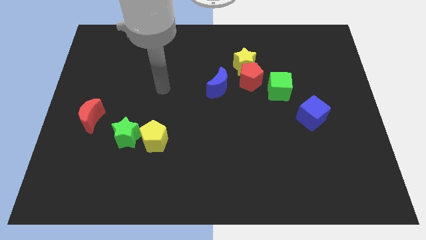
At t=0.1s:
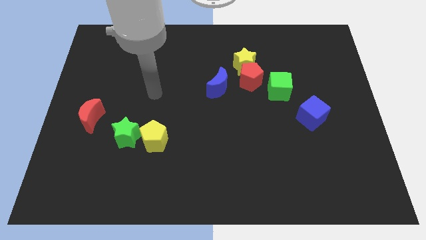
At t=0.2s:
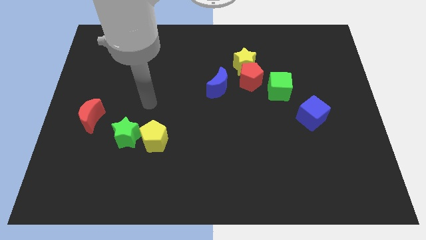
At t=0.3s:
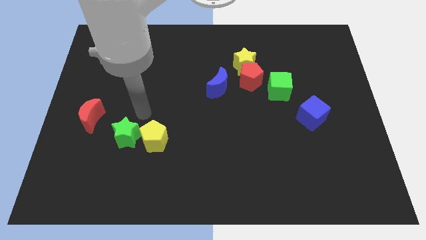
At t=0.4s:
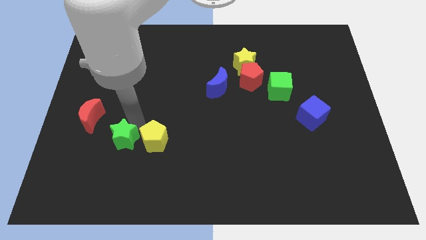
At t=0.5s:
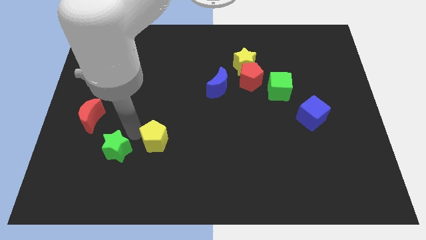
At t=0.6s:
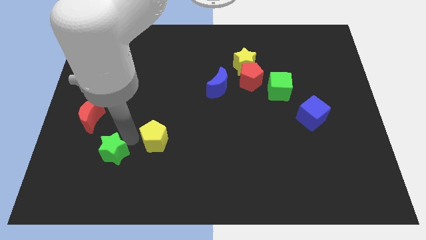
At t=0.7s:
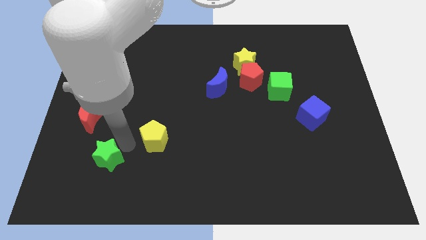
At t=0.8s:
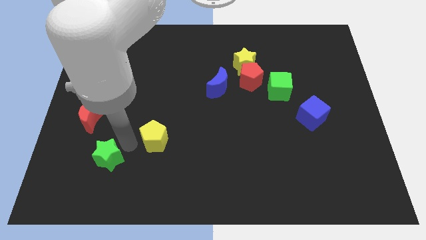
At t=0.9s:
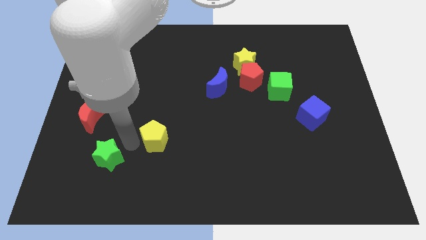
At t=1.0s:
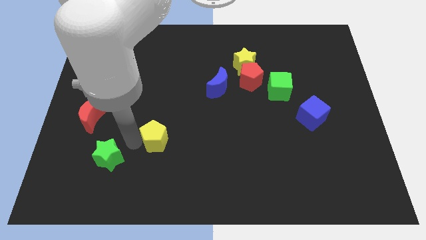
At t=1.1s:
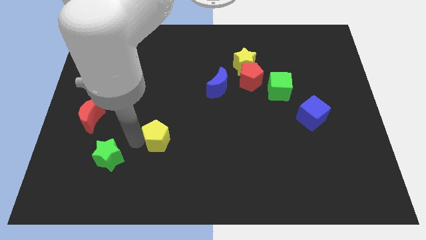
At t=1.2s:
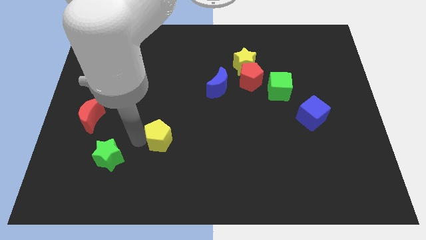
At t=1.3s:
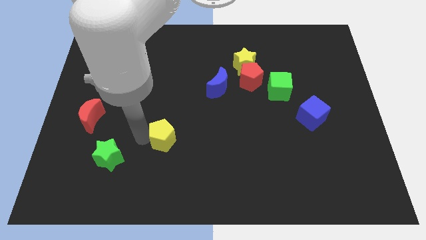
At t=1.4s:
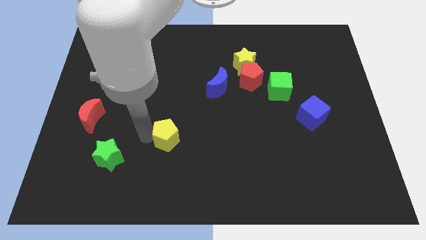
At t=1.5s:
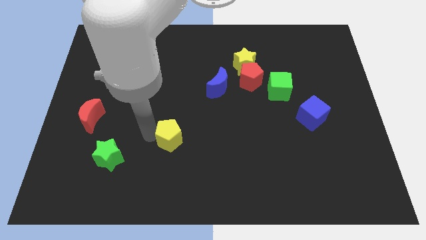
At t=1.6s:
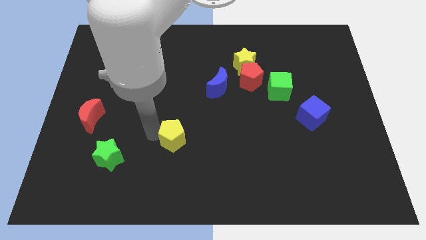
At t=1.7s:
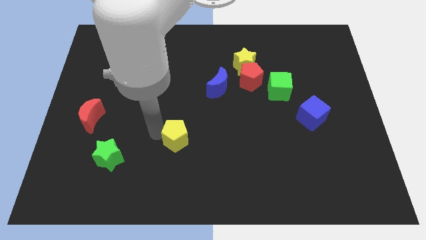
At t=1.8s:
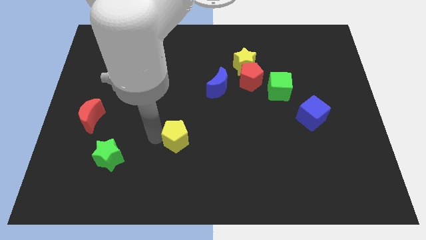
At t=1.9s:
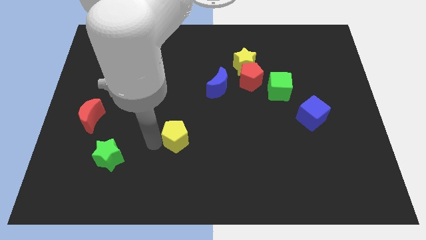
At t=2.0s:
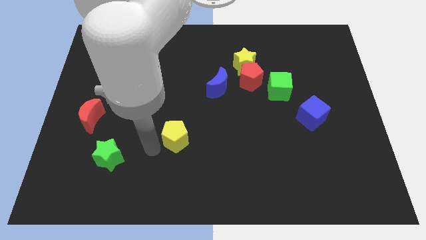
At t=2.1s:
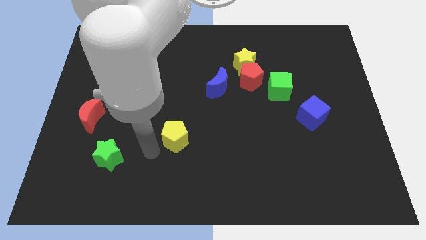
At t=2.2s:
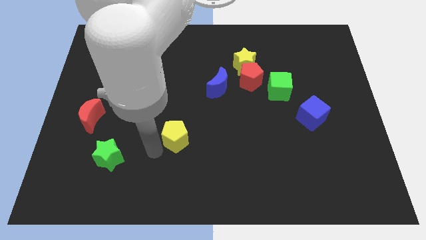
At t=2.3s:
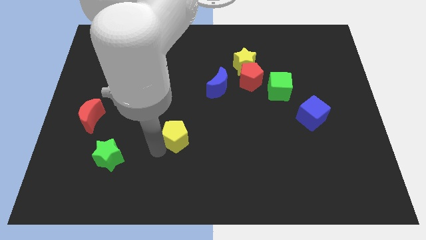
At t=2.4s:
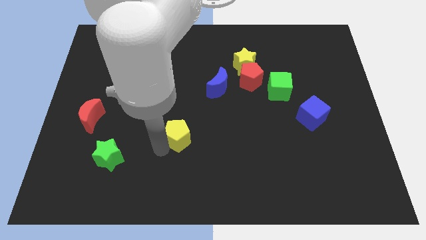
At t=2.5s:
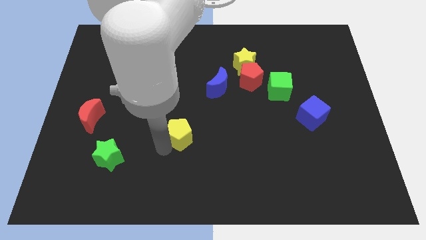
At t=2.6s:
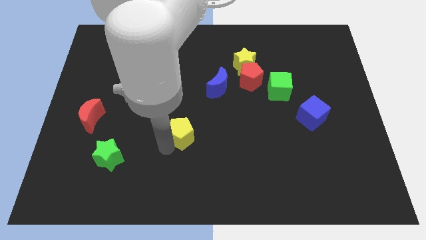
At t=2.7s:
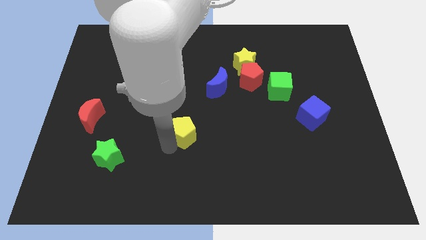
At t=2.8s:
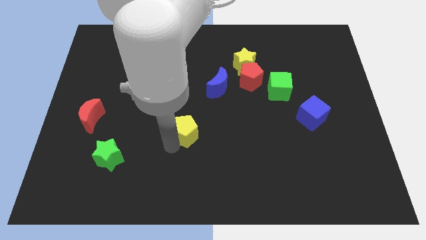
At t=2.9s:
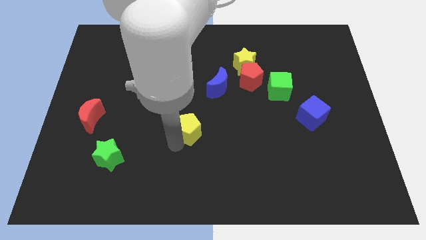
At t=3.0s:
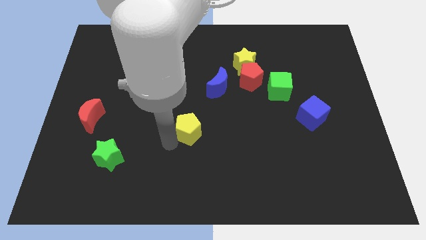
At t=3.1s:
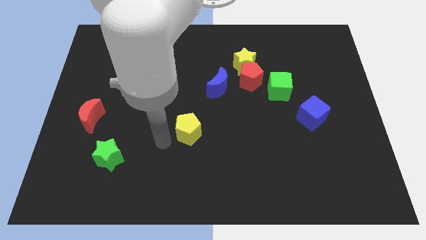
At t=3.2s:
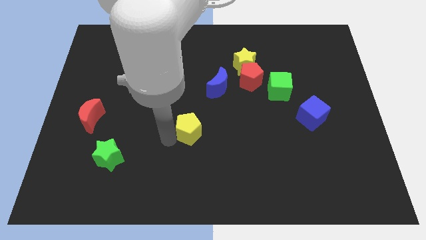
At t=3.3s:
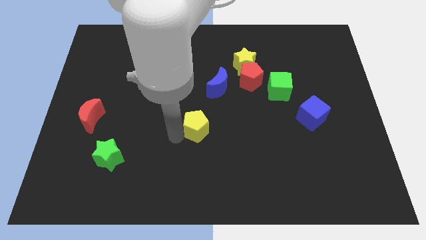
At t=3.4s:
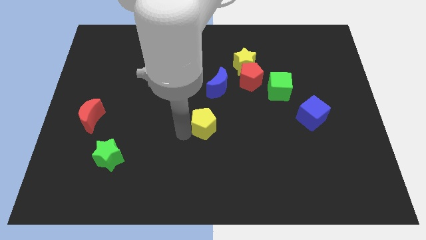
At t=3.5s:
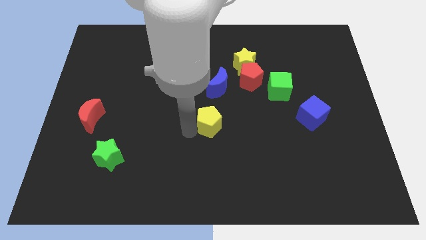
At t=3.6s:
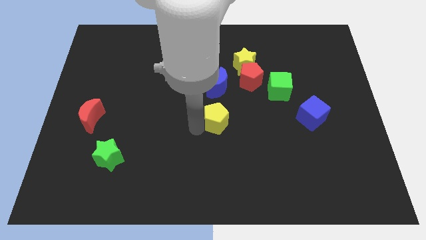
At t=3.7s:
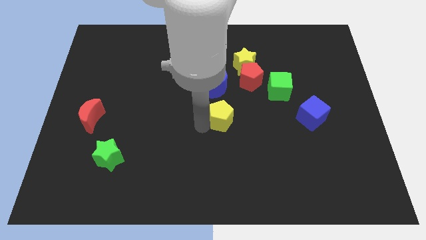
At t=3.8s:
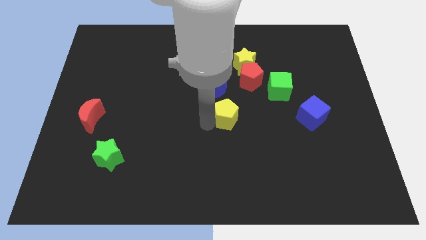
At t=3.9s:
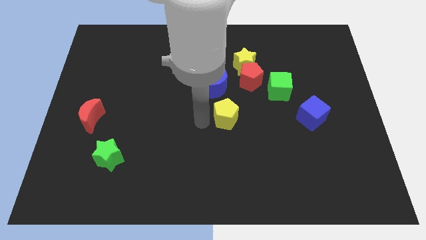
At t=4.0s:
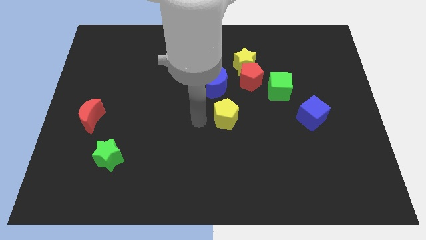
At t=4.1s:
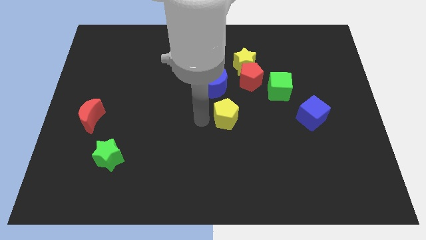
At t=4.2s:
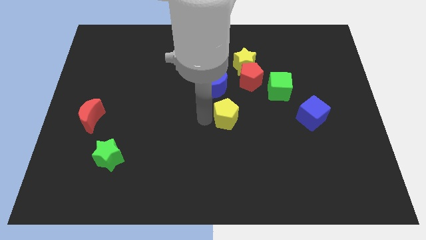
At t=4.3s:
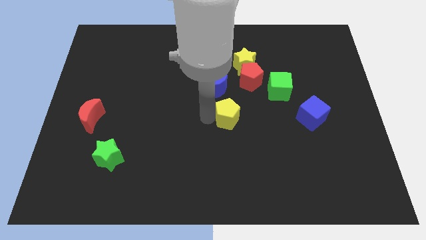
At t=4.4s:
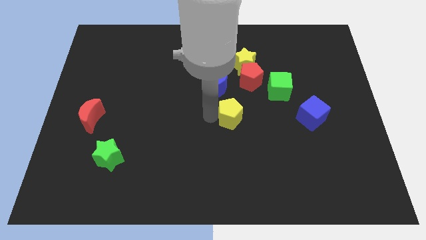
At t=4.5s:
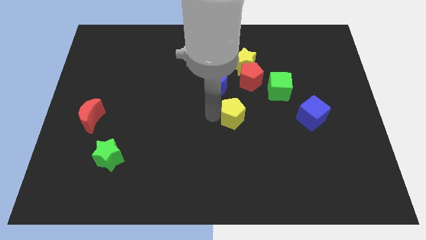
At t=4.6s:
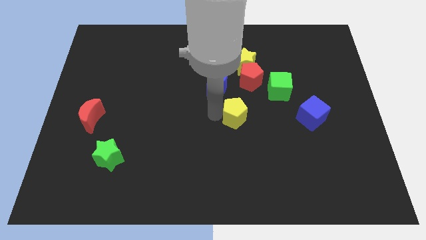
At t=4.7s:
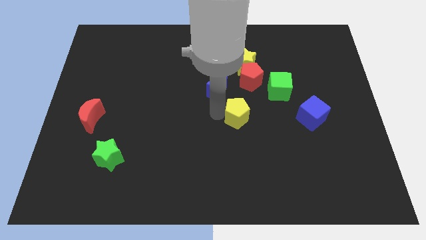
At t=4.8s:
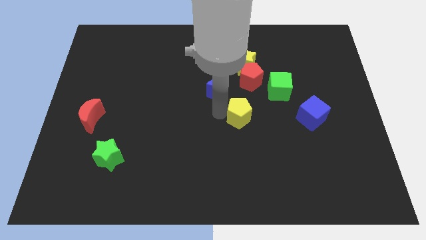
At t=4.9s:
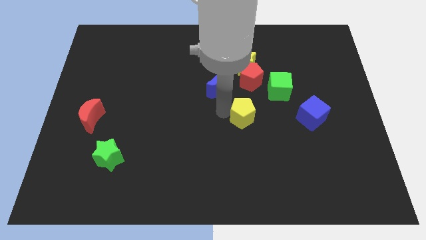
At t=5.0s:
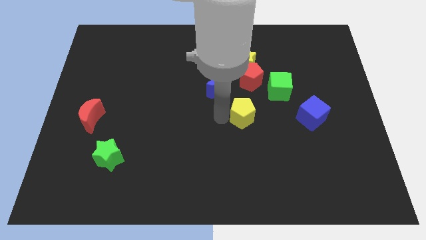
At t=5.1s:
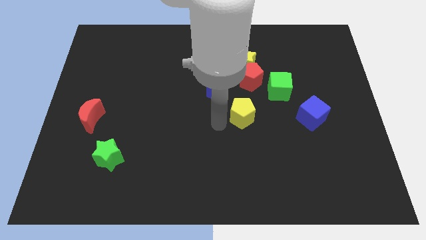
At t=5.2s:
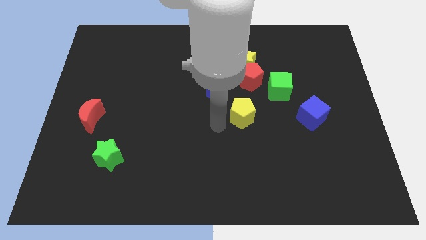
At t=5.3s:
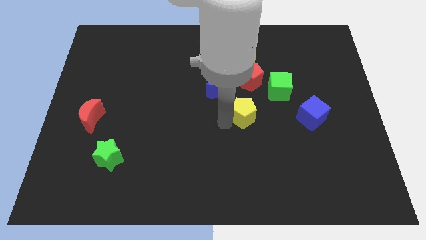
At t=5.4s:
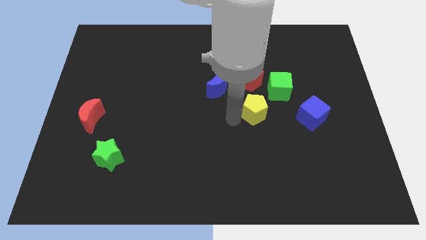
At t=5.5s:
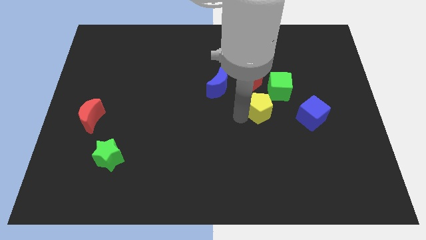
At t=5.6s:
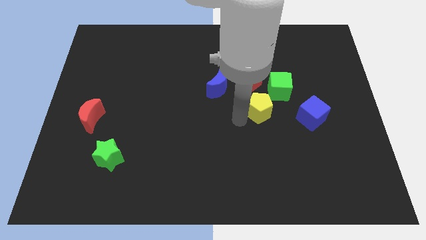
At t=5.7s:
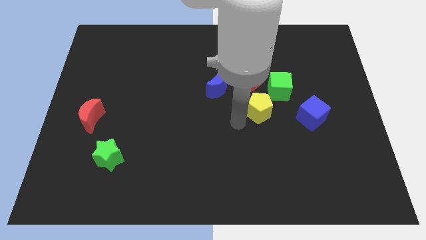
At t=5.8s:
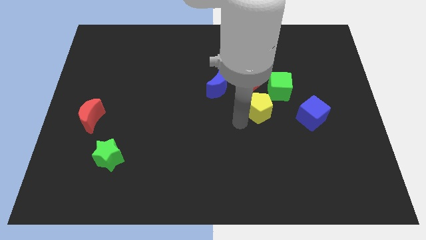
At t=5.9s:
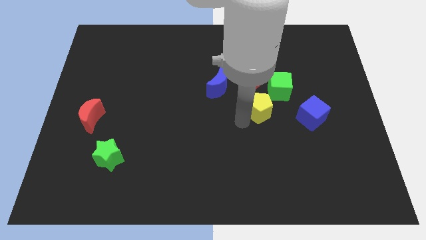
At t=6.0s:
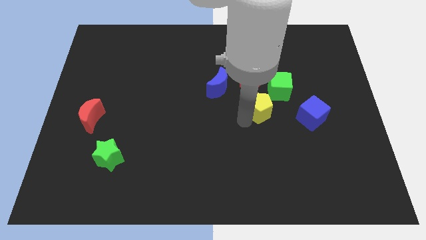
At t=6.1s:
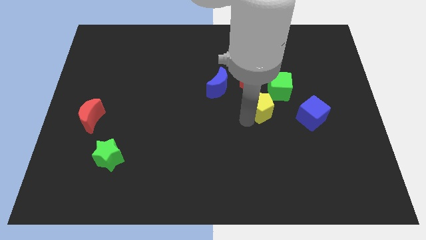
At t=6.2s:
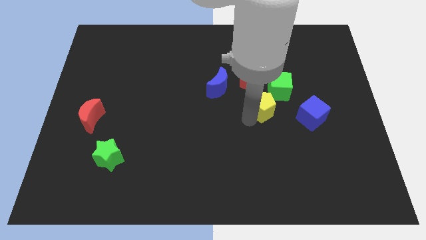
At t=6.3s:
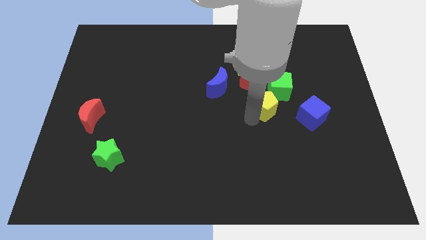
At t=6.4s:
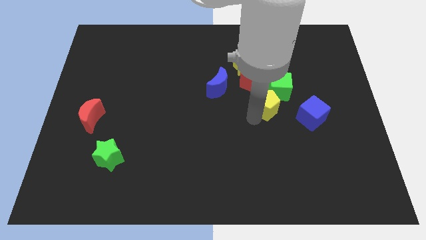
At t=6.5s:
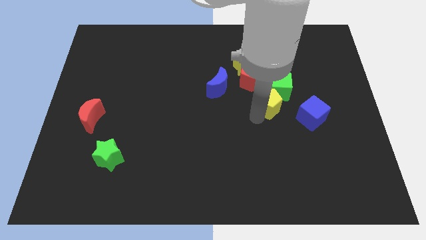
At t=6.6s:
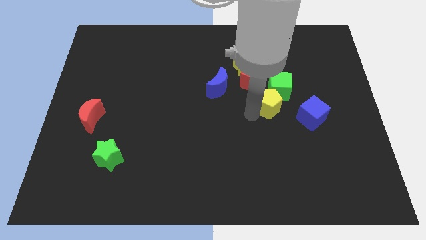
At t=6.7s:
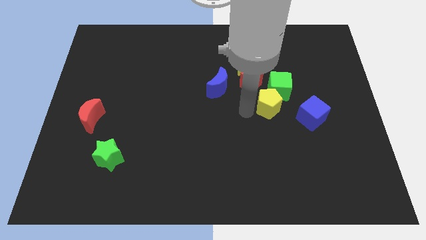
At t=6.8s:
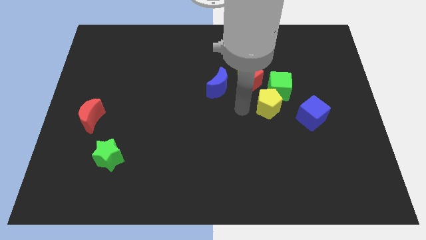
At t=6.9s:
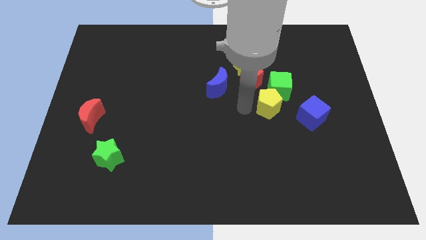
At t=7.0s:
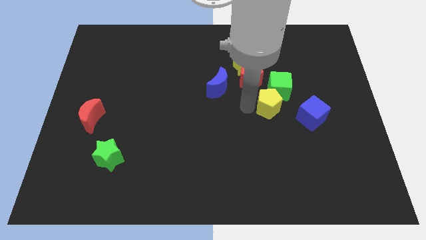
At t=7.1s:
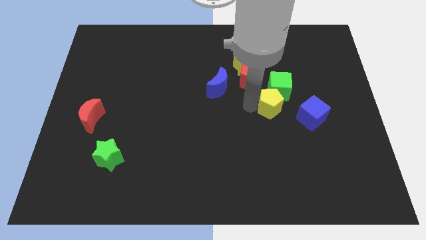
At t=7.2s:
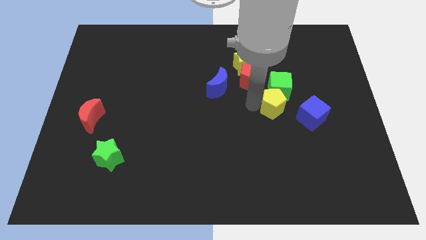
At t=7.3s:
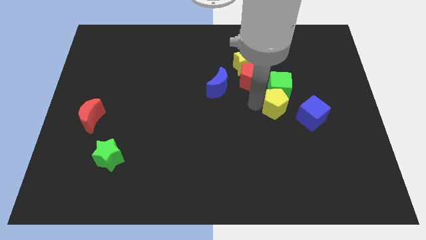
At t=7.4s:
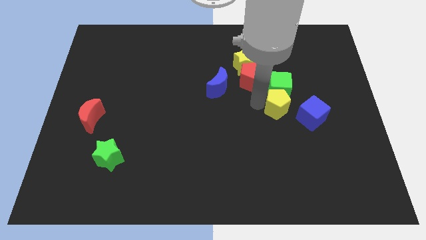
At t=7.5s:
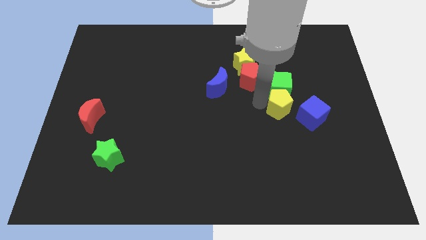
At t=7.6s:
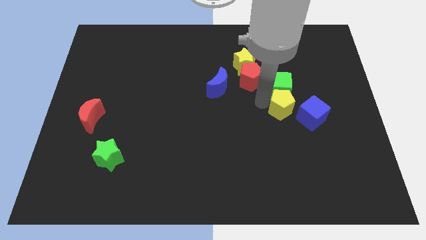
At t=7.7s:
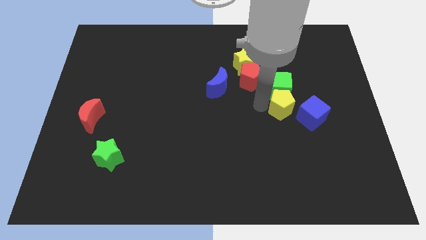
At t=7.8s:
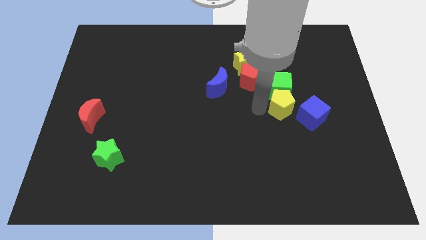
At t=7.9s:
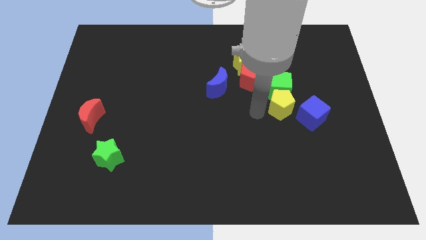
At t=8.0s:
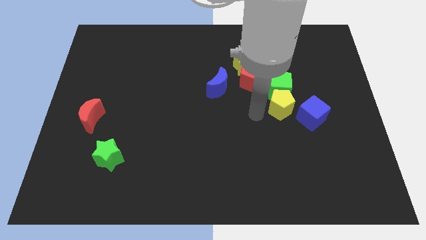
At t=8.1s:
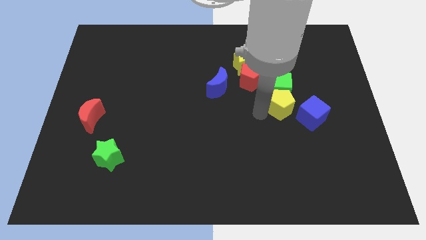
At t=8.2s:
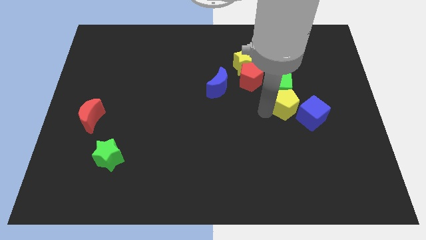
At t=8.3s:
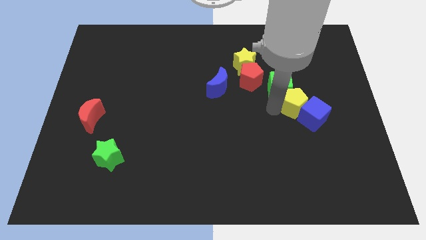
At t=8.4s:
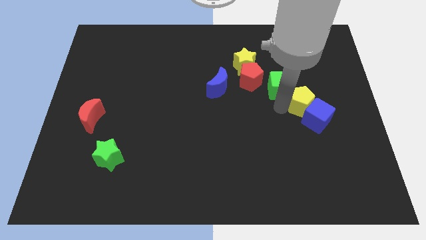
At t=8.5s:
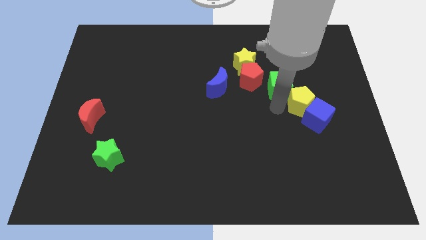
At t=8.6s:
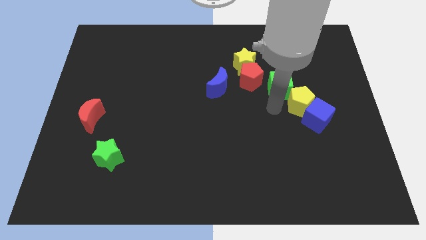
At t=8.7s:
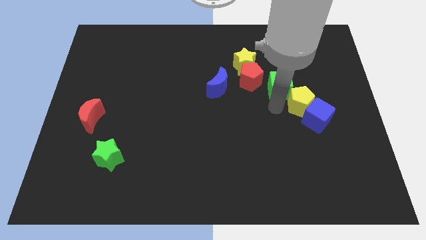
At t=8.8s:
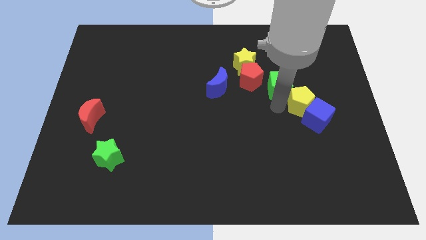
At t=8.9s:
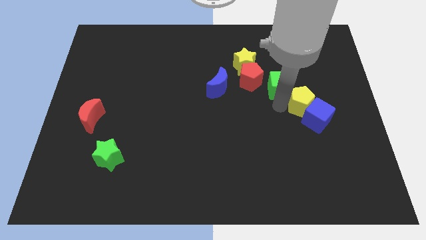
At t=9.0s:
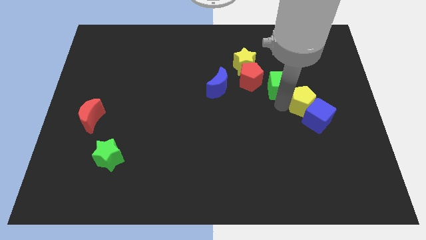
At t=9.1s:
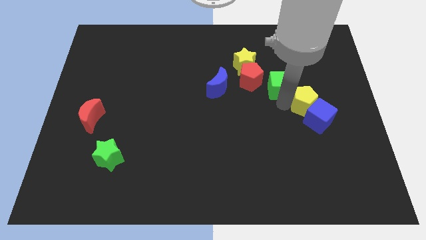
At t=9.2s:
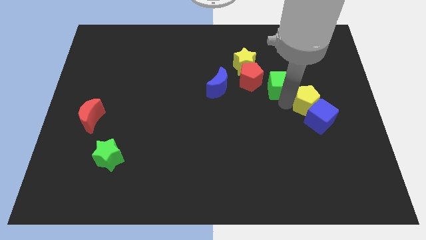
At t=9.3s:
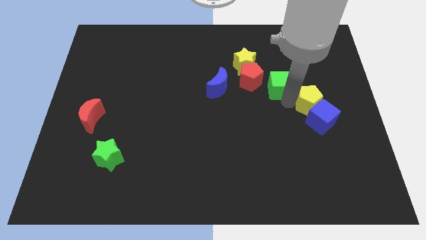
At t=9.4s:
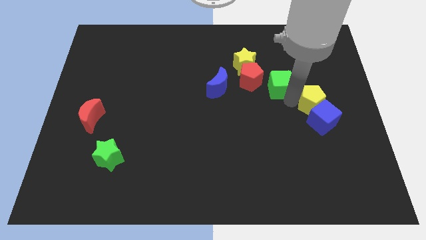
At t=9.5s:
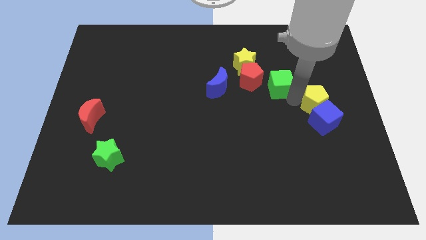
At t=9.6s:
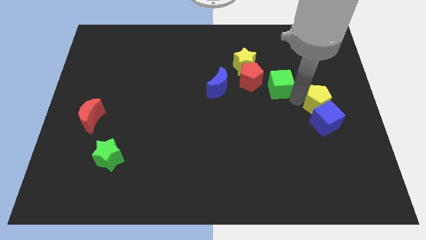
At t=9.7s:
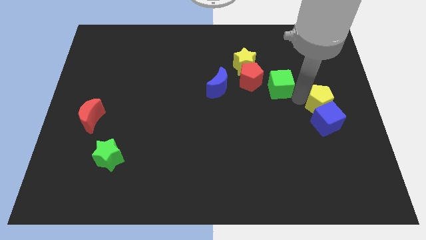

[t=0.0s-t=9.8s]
put the yellow pentagon to the center right
